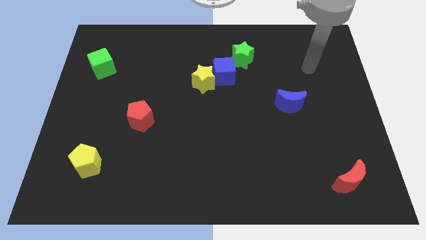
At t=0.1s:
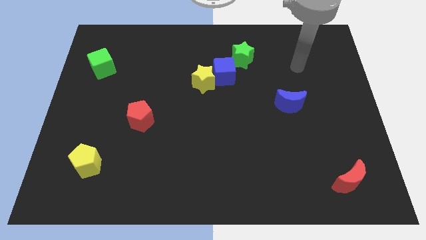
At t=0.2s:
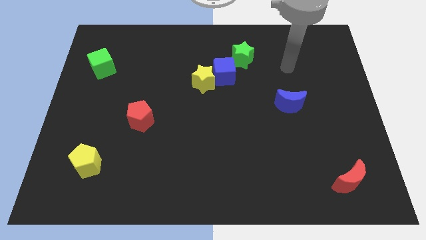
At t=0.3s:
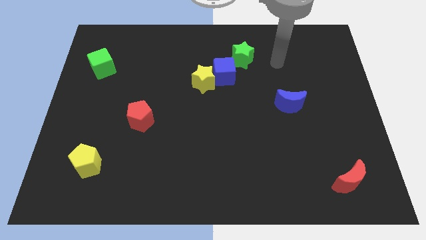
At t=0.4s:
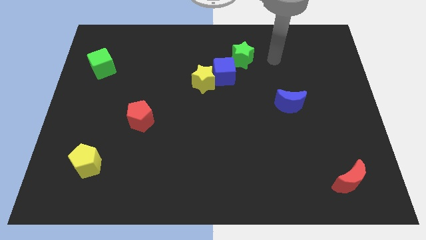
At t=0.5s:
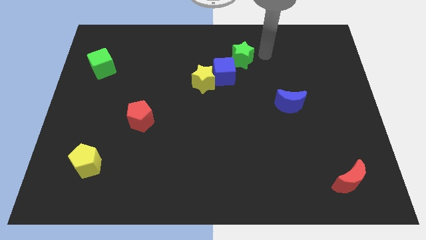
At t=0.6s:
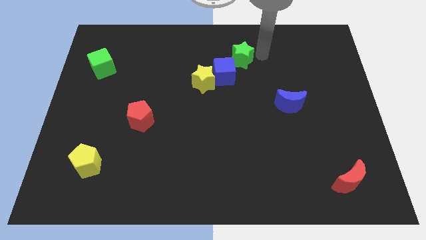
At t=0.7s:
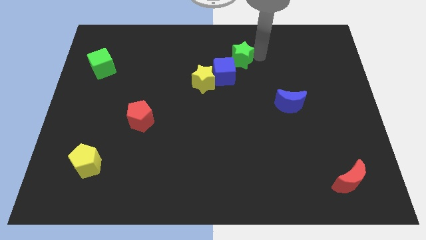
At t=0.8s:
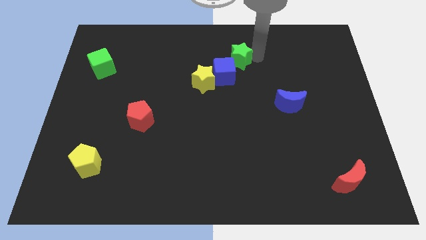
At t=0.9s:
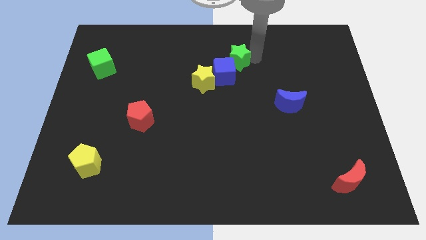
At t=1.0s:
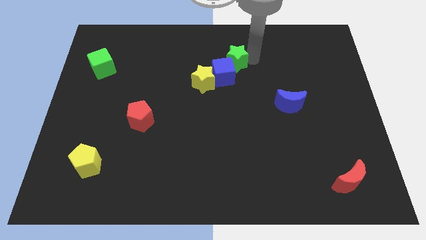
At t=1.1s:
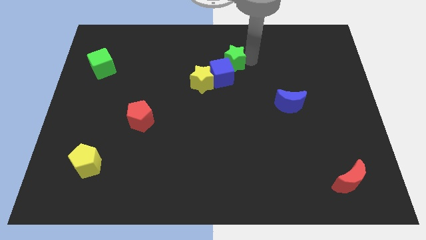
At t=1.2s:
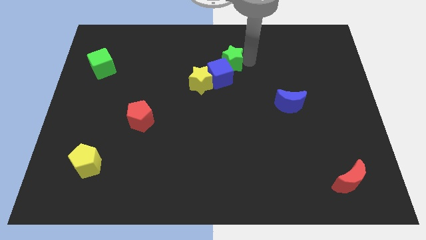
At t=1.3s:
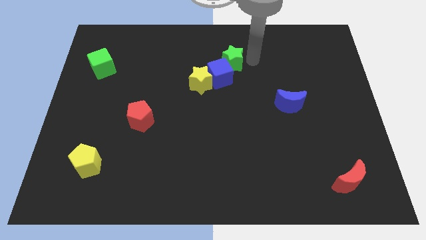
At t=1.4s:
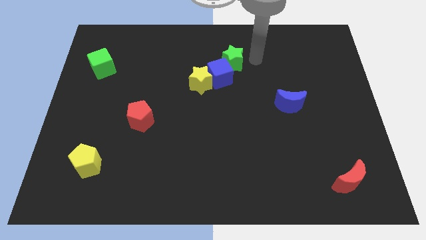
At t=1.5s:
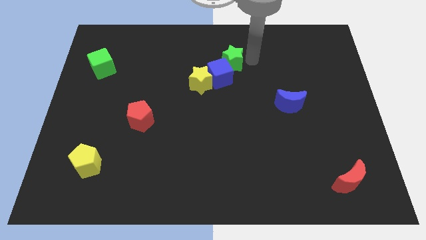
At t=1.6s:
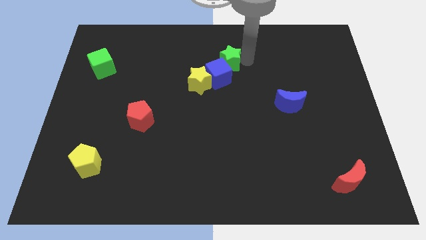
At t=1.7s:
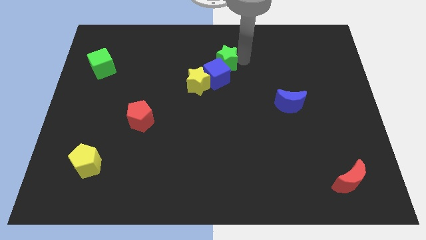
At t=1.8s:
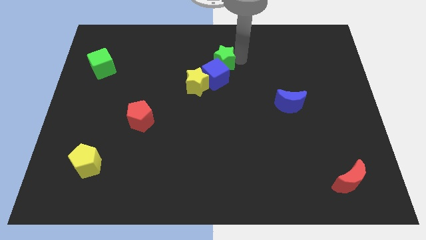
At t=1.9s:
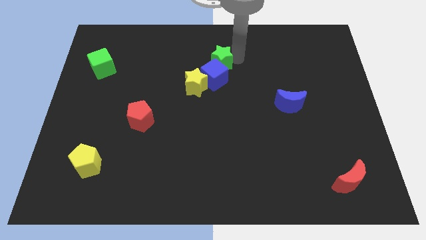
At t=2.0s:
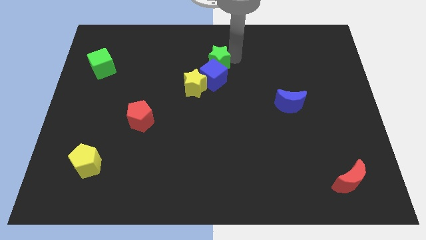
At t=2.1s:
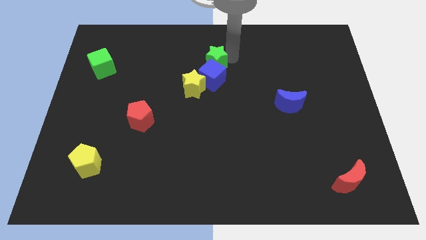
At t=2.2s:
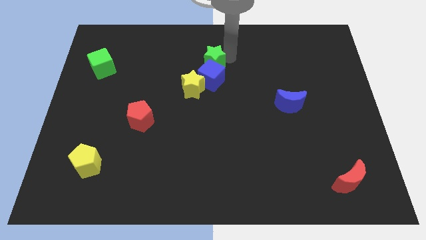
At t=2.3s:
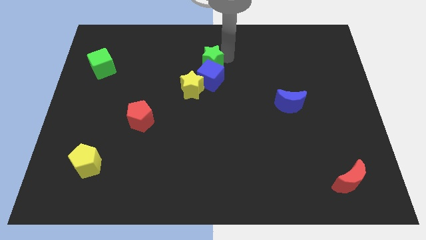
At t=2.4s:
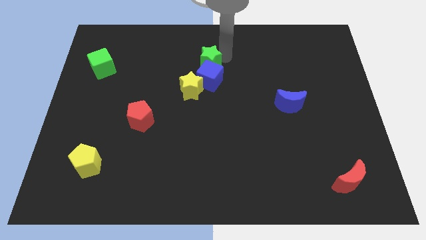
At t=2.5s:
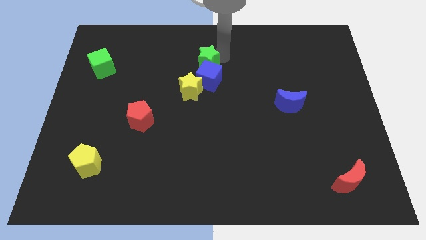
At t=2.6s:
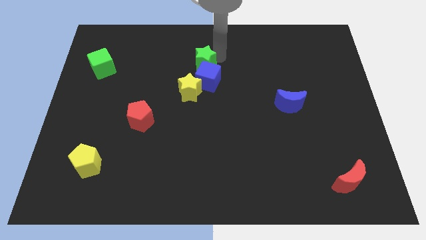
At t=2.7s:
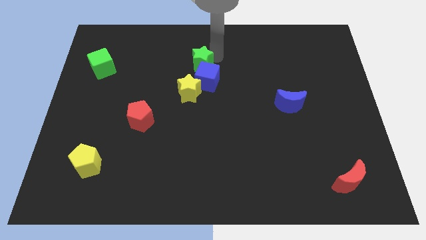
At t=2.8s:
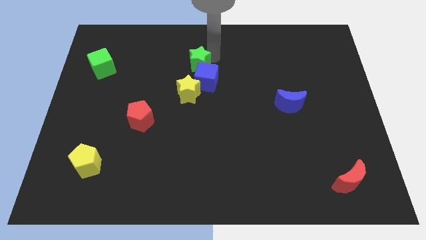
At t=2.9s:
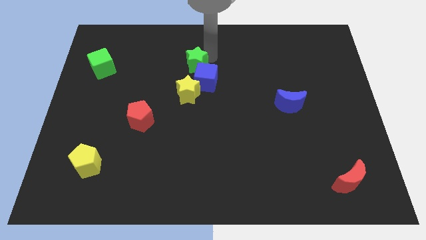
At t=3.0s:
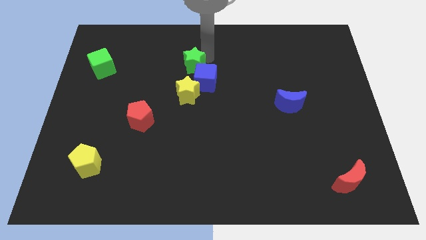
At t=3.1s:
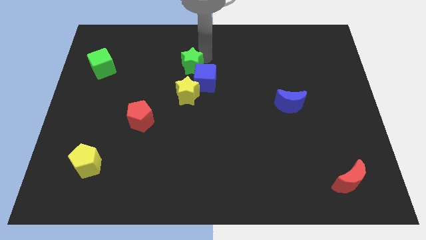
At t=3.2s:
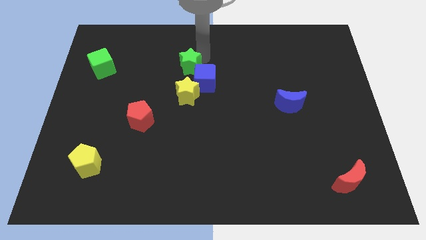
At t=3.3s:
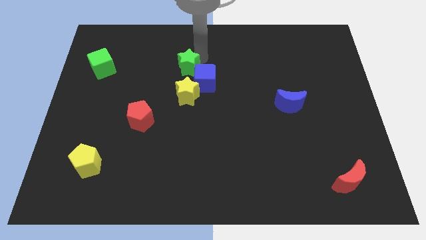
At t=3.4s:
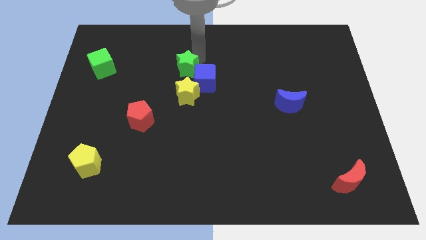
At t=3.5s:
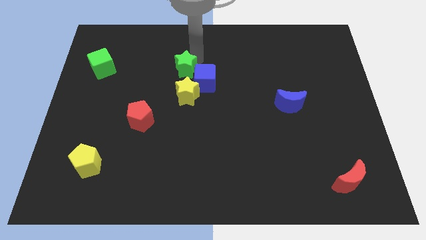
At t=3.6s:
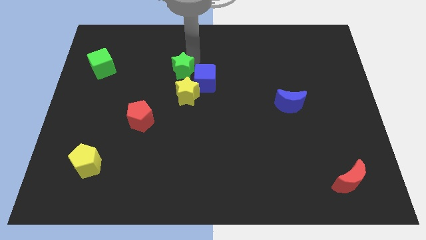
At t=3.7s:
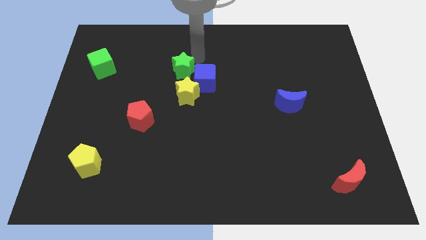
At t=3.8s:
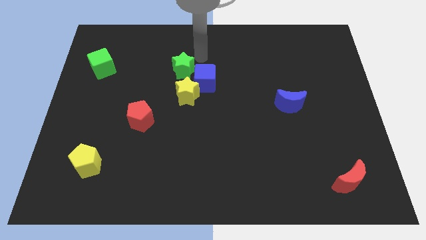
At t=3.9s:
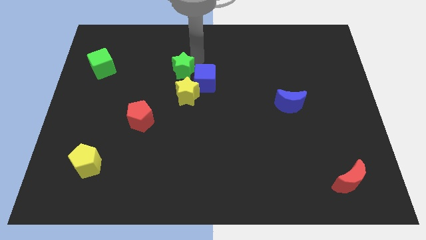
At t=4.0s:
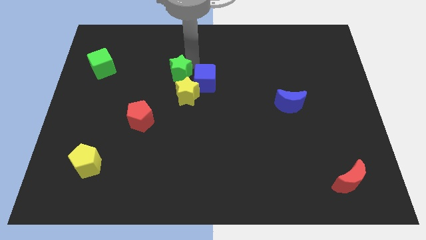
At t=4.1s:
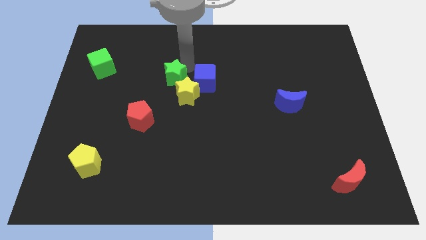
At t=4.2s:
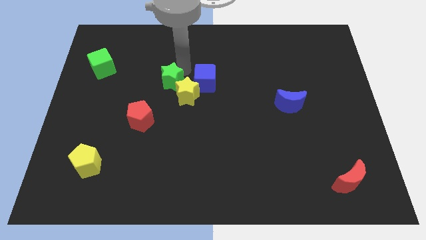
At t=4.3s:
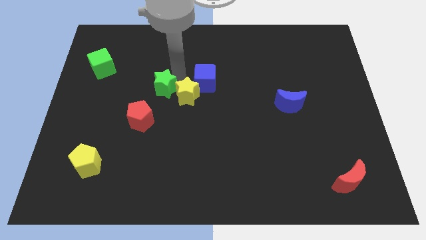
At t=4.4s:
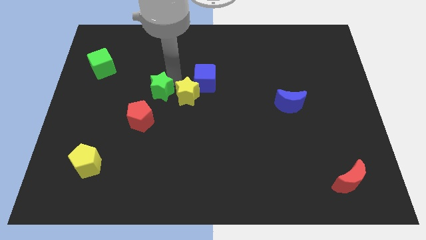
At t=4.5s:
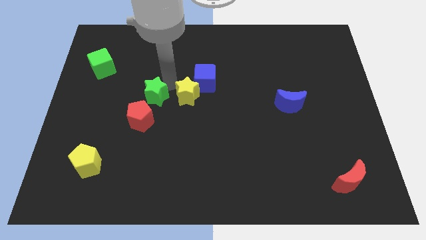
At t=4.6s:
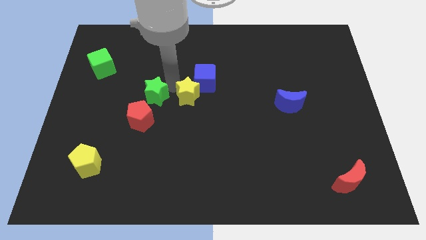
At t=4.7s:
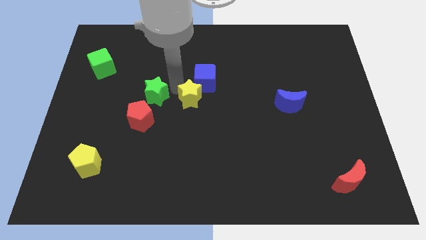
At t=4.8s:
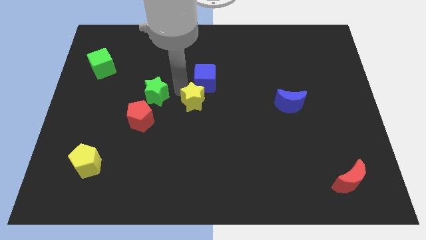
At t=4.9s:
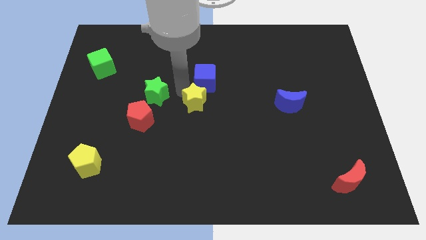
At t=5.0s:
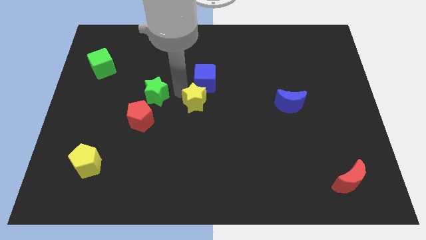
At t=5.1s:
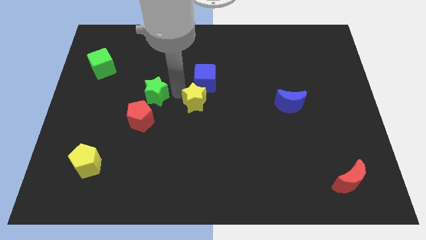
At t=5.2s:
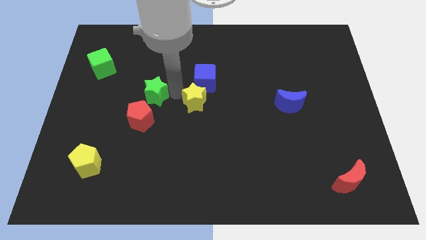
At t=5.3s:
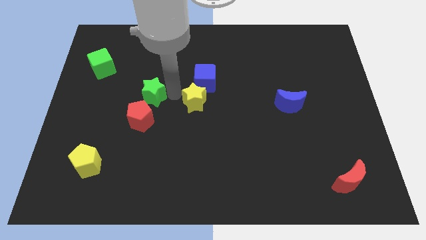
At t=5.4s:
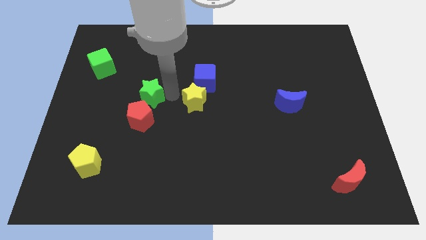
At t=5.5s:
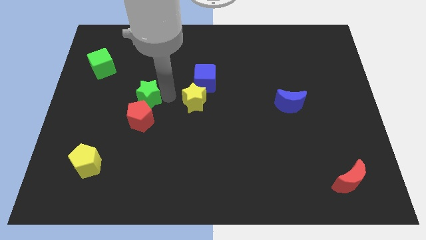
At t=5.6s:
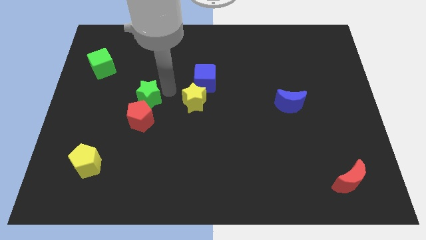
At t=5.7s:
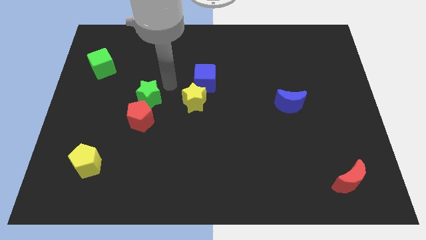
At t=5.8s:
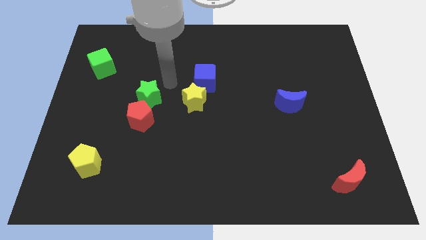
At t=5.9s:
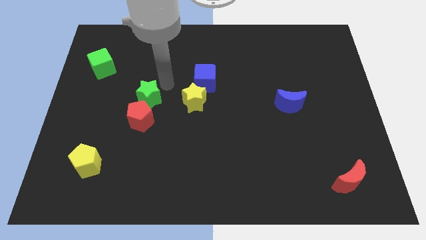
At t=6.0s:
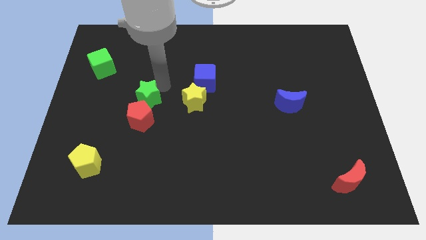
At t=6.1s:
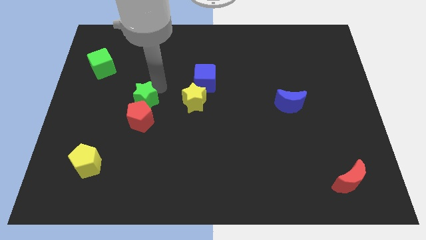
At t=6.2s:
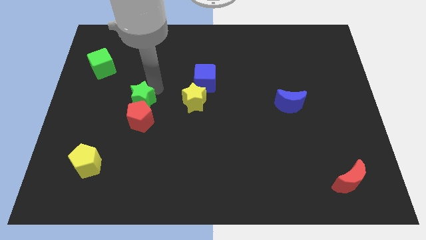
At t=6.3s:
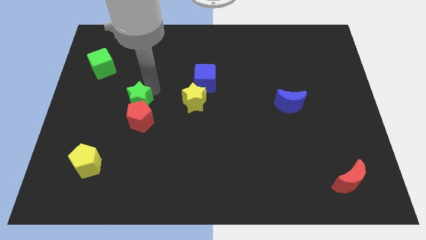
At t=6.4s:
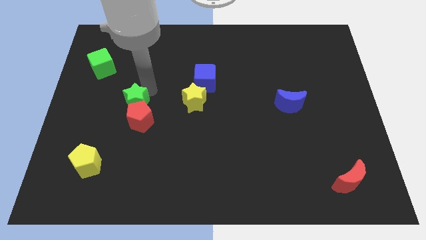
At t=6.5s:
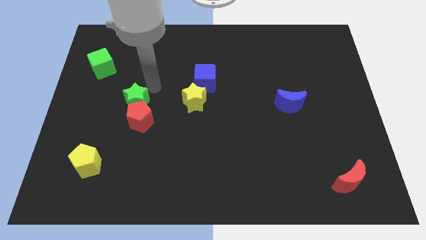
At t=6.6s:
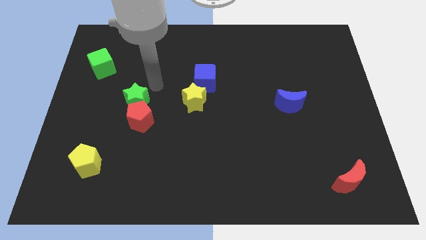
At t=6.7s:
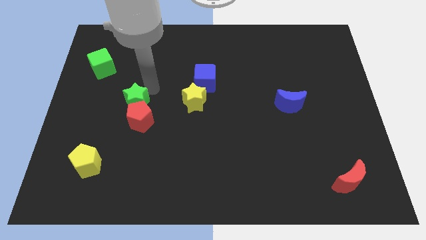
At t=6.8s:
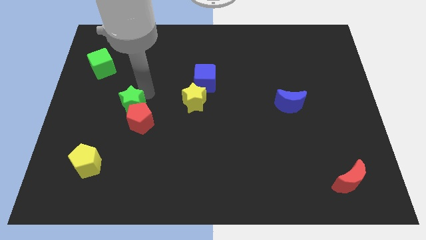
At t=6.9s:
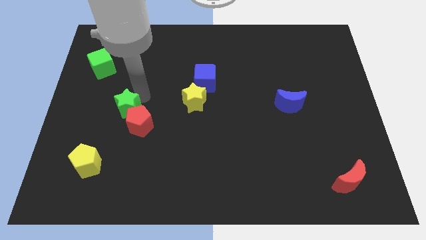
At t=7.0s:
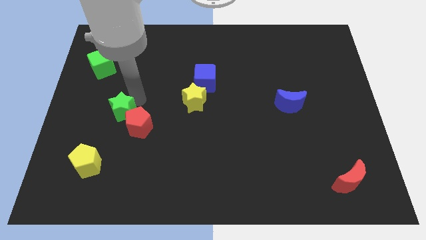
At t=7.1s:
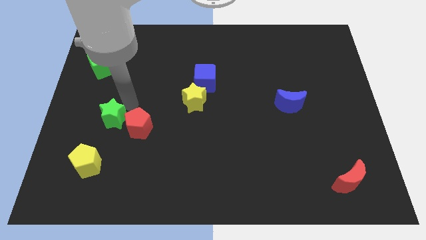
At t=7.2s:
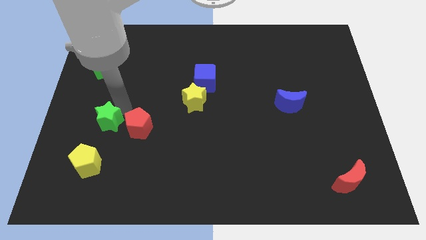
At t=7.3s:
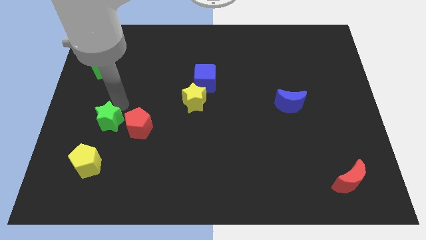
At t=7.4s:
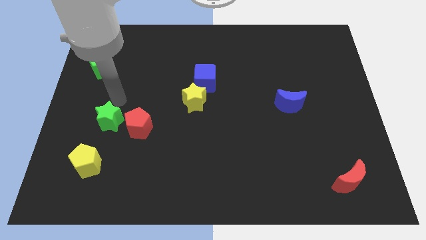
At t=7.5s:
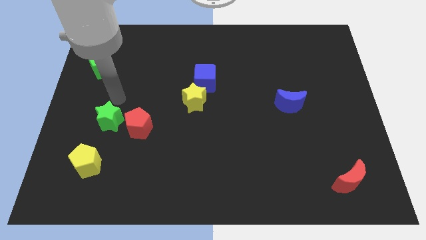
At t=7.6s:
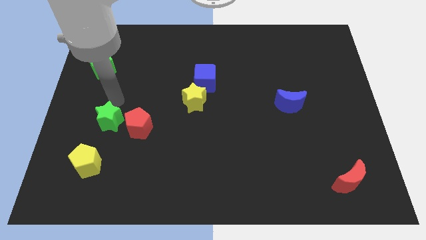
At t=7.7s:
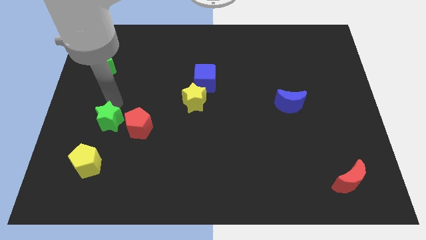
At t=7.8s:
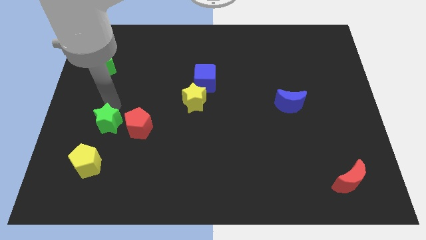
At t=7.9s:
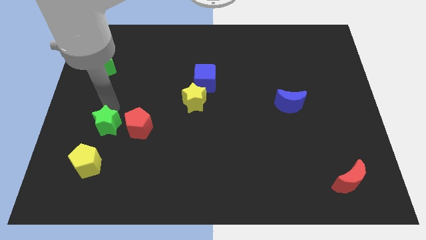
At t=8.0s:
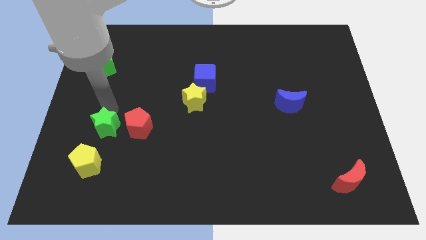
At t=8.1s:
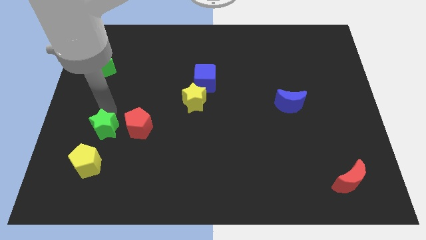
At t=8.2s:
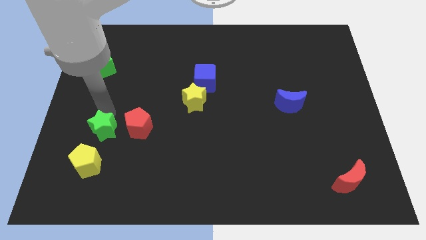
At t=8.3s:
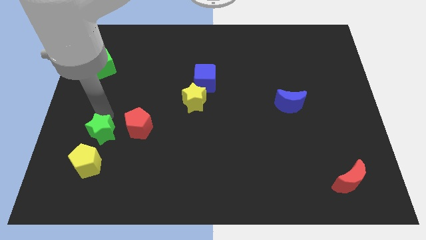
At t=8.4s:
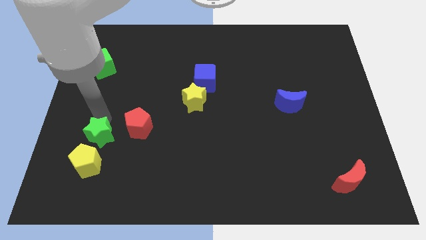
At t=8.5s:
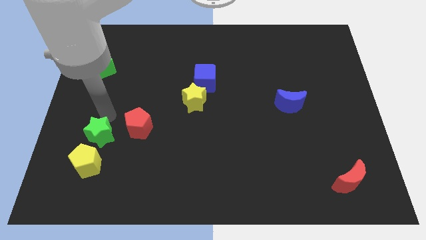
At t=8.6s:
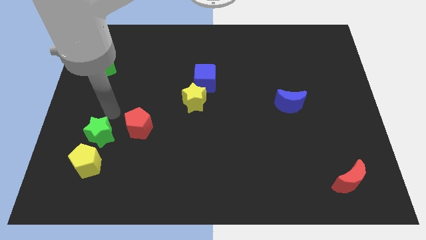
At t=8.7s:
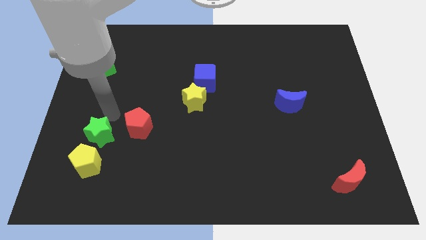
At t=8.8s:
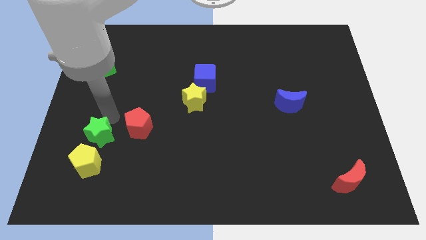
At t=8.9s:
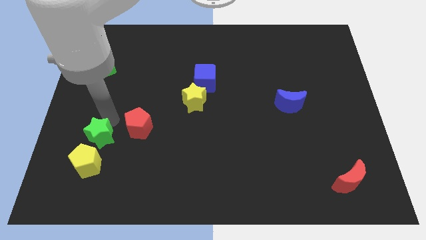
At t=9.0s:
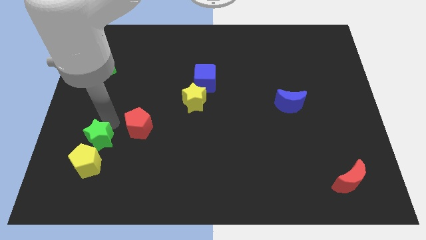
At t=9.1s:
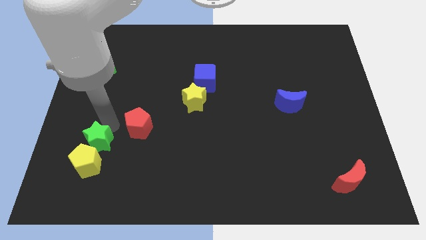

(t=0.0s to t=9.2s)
put the green star towards the yellow pentagon
